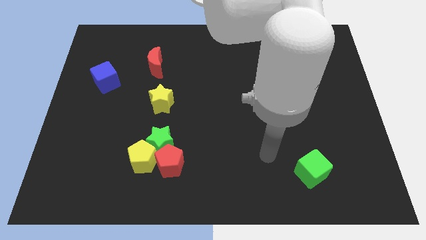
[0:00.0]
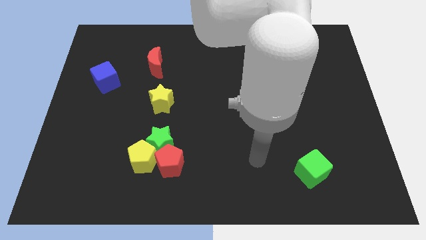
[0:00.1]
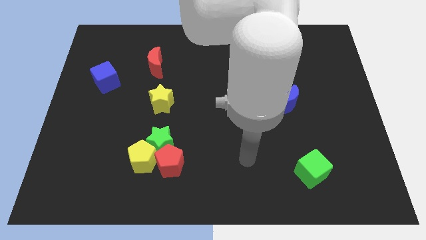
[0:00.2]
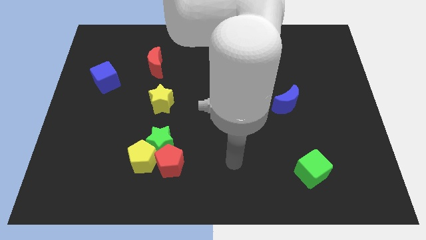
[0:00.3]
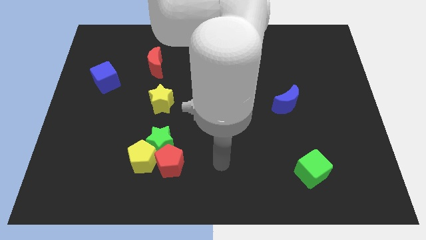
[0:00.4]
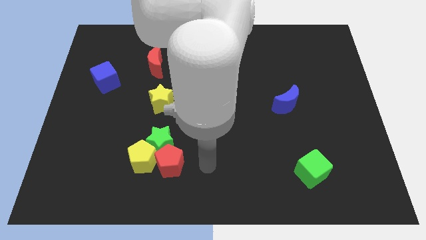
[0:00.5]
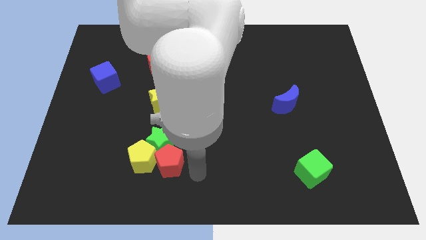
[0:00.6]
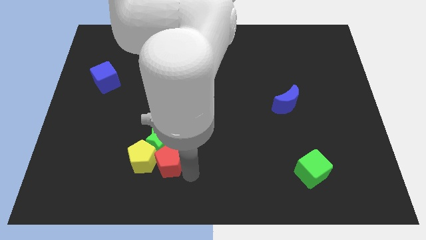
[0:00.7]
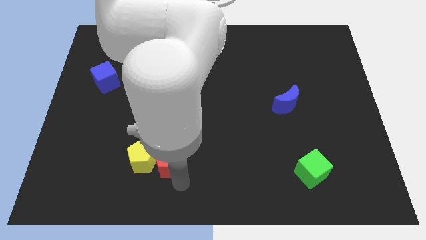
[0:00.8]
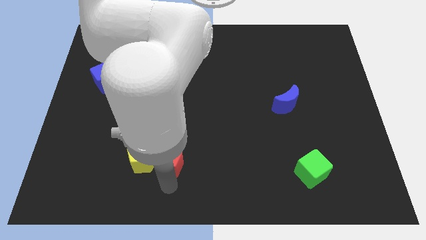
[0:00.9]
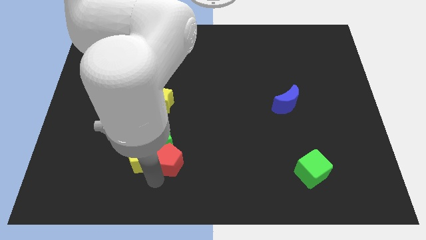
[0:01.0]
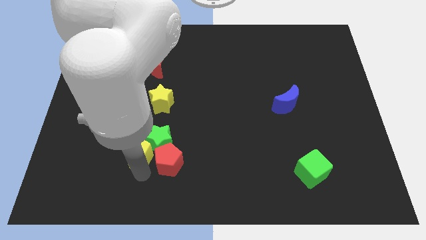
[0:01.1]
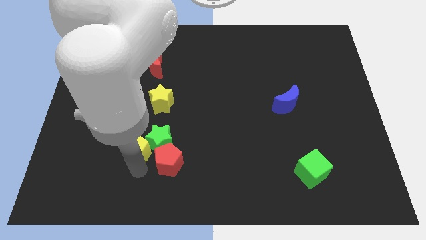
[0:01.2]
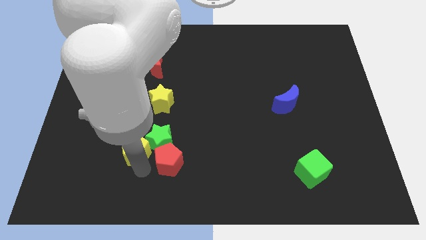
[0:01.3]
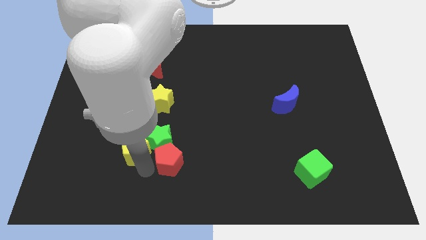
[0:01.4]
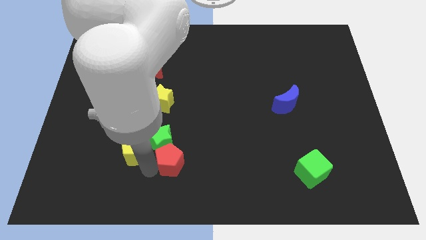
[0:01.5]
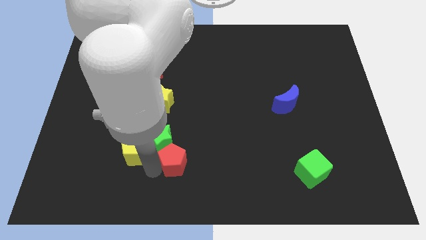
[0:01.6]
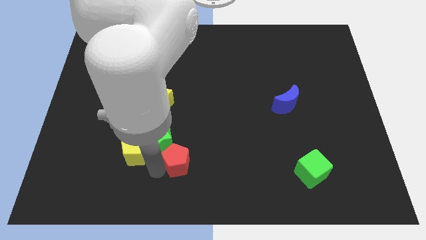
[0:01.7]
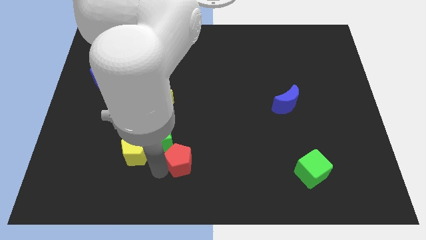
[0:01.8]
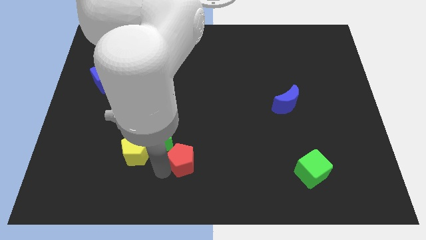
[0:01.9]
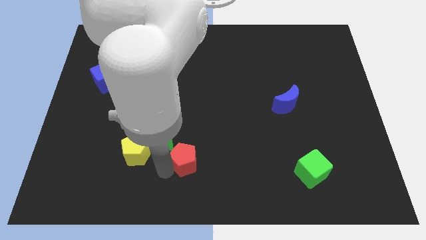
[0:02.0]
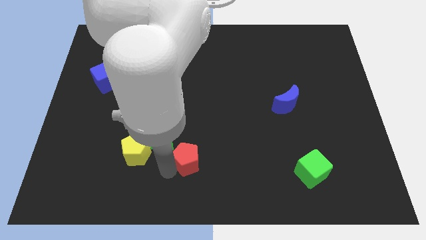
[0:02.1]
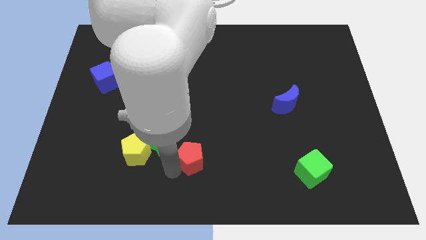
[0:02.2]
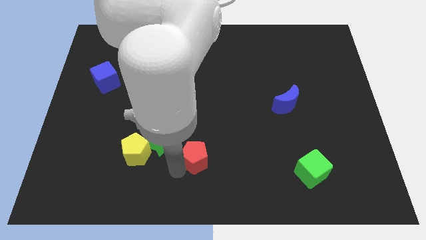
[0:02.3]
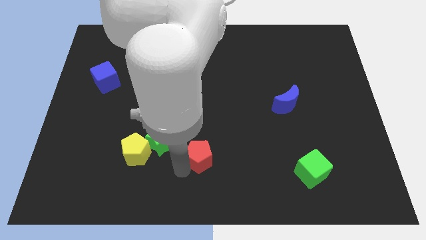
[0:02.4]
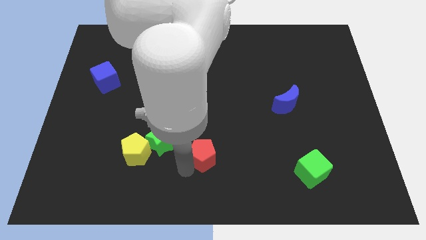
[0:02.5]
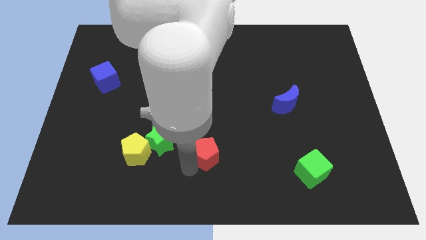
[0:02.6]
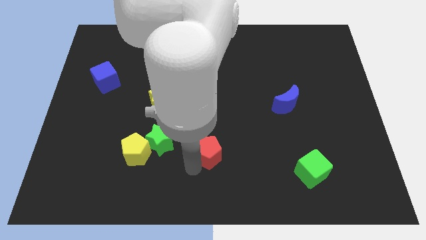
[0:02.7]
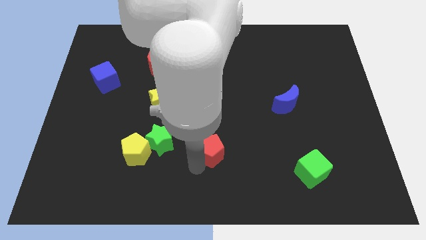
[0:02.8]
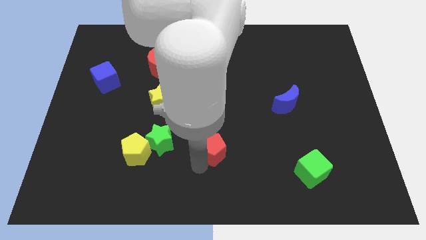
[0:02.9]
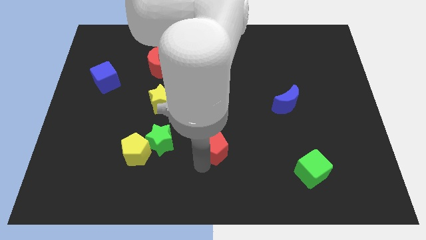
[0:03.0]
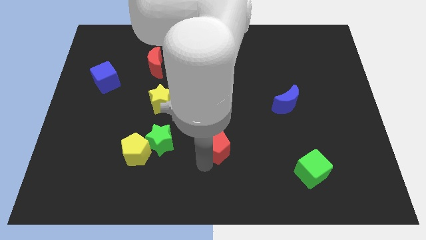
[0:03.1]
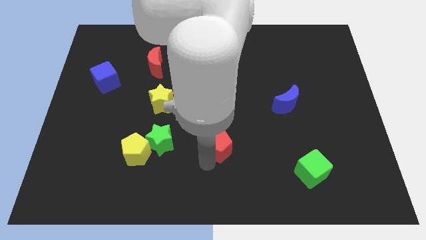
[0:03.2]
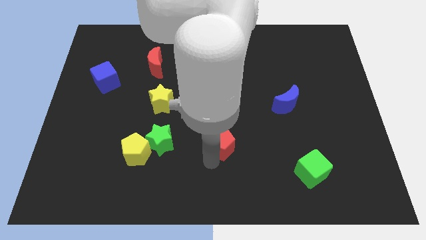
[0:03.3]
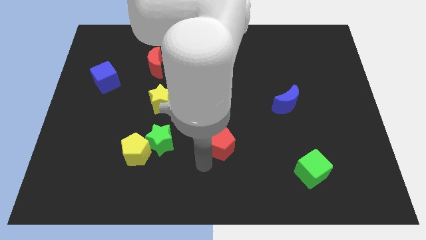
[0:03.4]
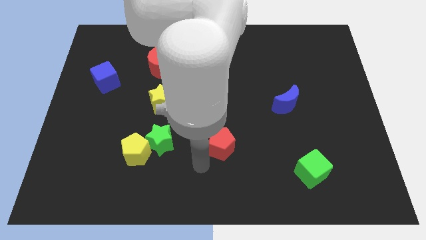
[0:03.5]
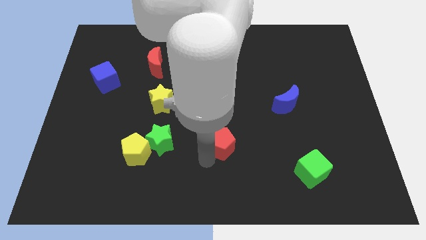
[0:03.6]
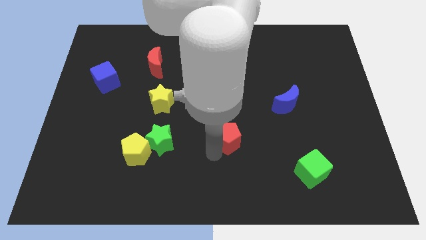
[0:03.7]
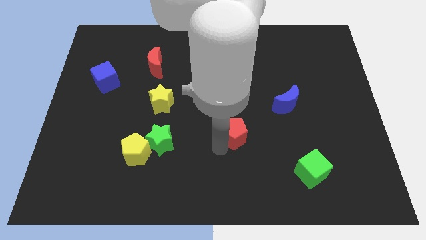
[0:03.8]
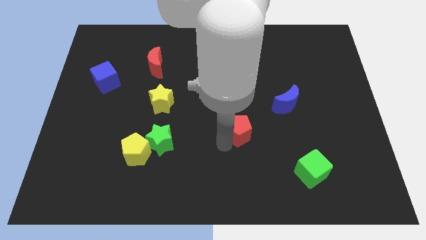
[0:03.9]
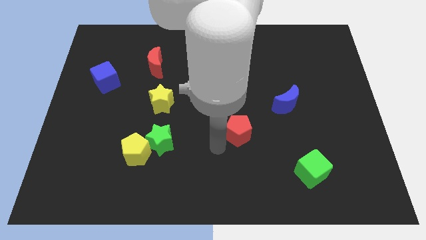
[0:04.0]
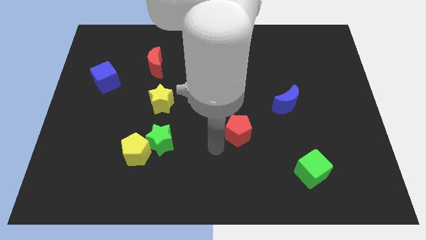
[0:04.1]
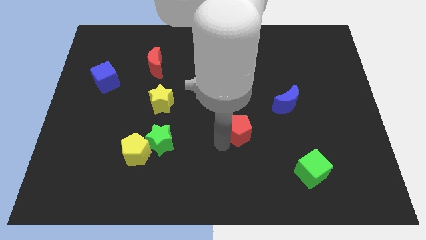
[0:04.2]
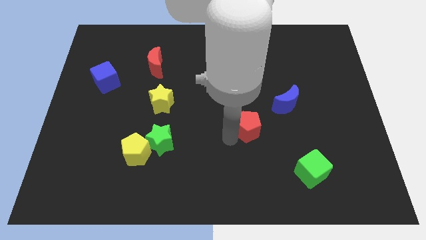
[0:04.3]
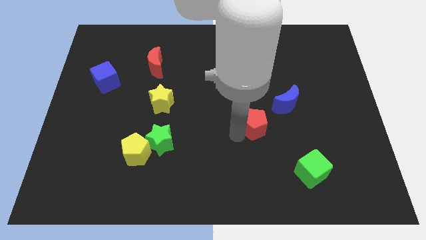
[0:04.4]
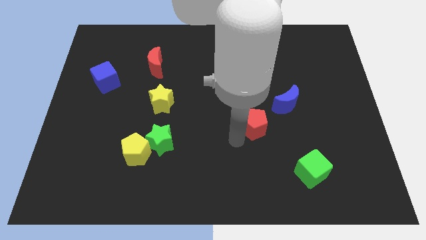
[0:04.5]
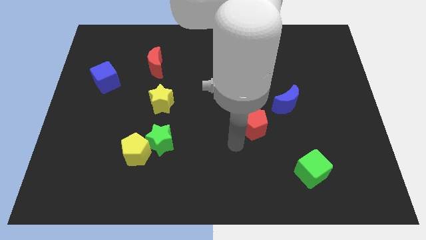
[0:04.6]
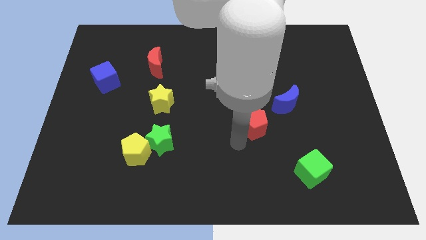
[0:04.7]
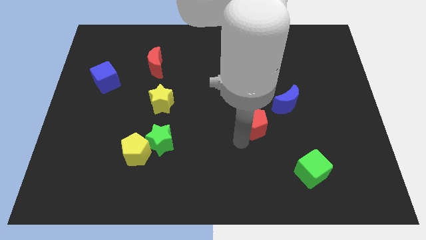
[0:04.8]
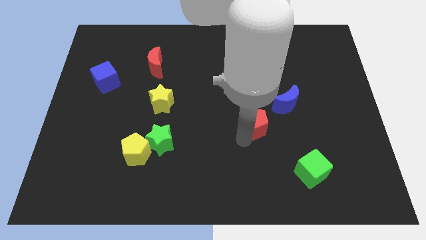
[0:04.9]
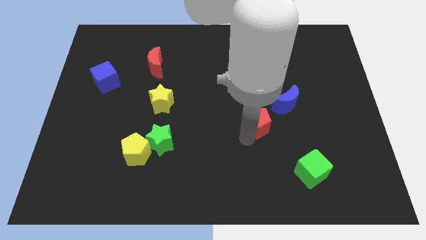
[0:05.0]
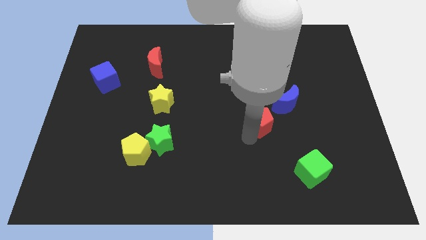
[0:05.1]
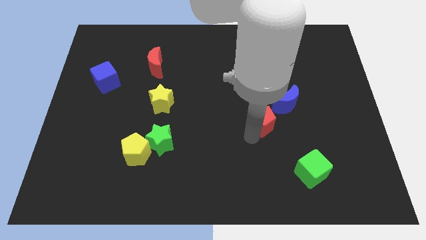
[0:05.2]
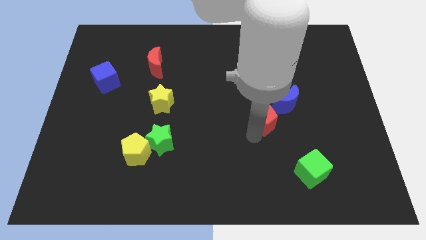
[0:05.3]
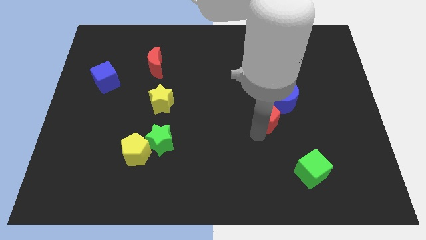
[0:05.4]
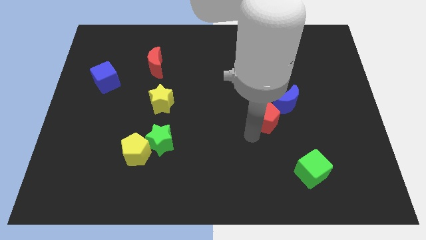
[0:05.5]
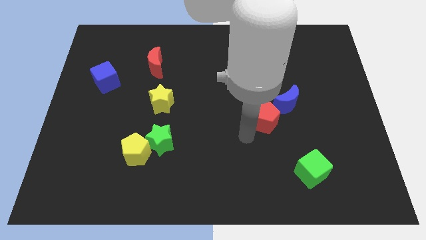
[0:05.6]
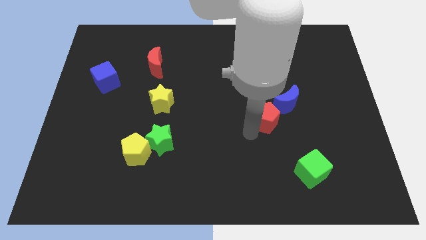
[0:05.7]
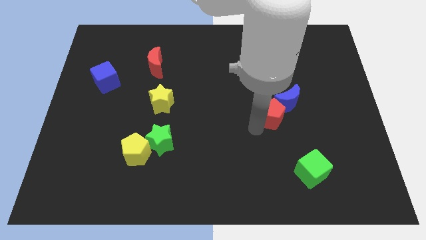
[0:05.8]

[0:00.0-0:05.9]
slide the red pentagon next to the blue moon
